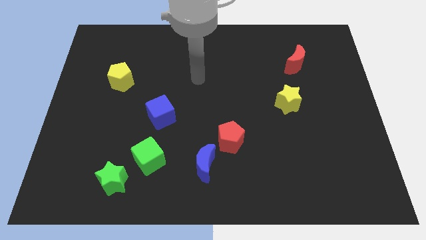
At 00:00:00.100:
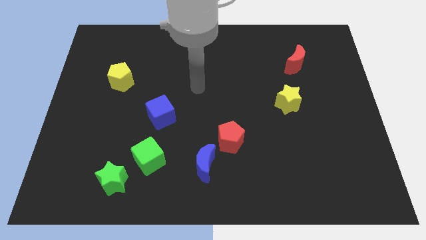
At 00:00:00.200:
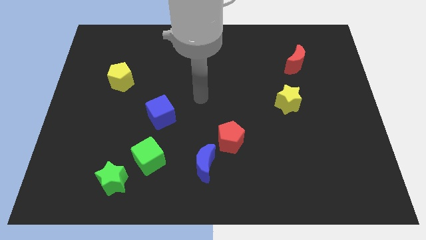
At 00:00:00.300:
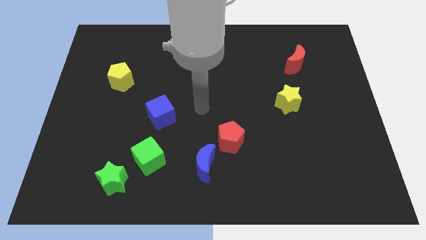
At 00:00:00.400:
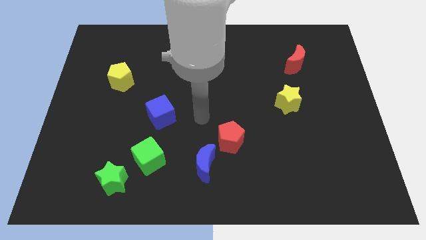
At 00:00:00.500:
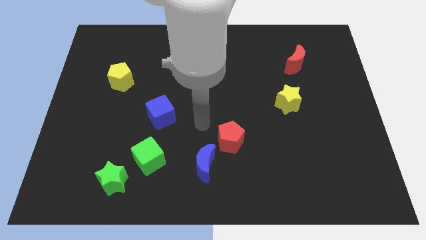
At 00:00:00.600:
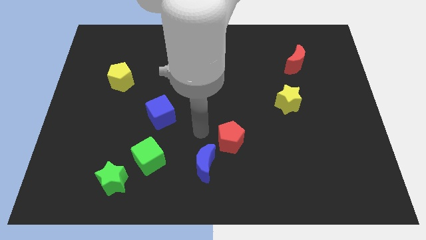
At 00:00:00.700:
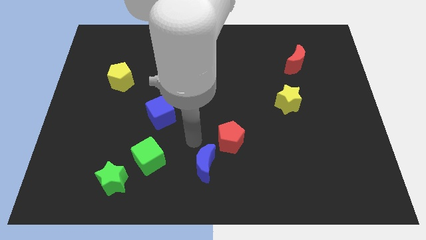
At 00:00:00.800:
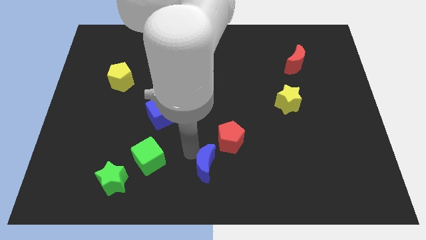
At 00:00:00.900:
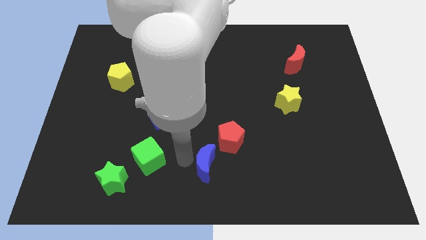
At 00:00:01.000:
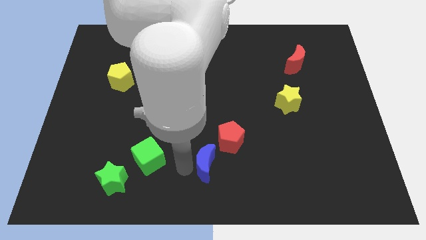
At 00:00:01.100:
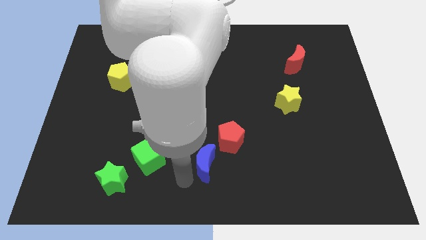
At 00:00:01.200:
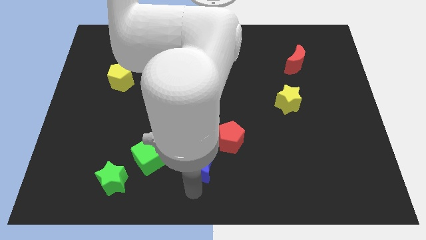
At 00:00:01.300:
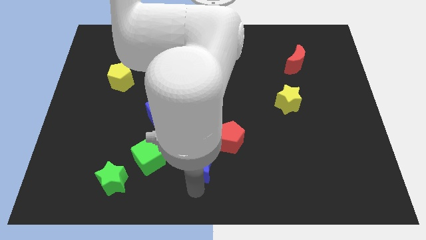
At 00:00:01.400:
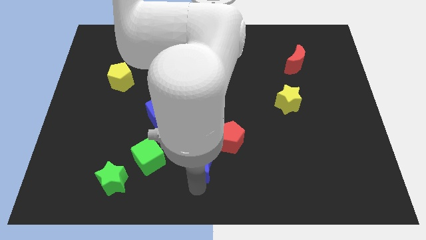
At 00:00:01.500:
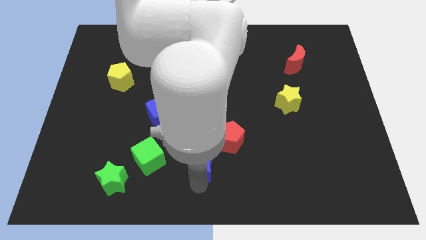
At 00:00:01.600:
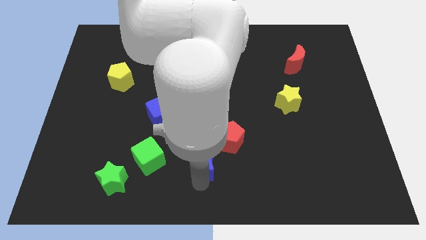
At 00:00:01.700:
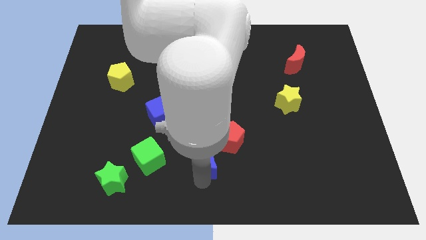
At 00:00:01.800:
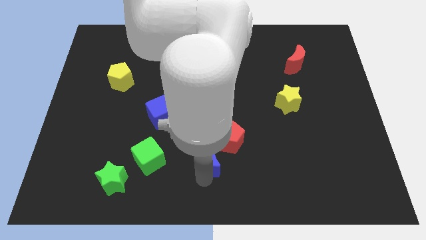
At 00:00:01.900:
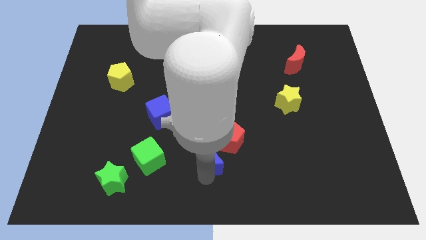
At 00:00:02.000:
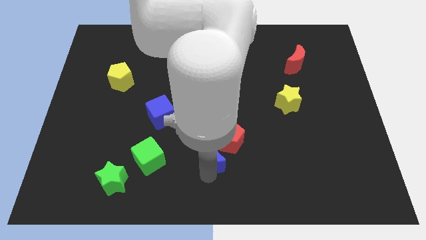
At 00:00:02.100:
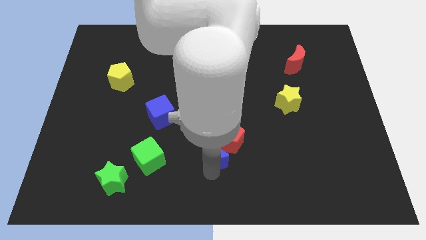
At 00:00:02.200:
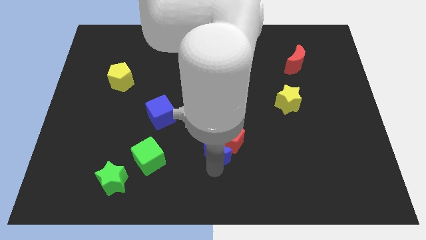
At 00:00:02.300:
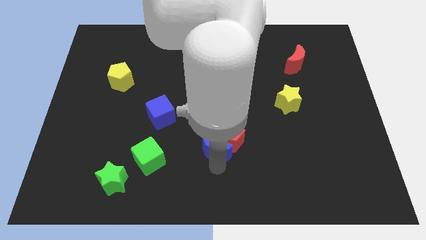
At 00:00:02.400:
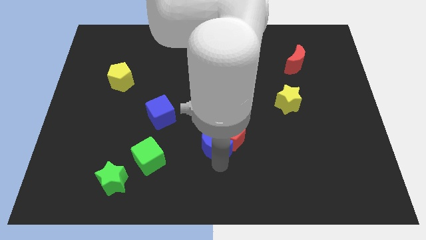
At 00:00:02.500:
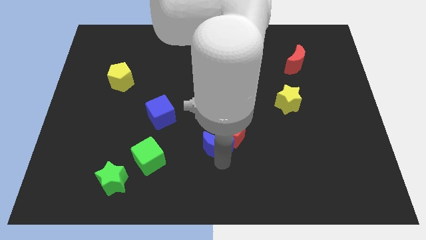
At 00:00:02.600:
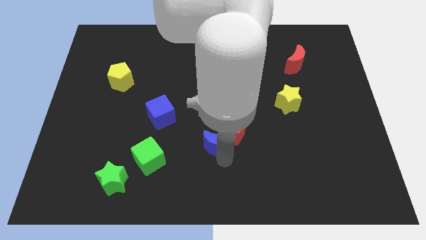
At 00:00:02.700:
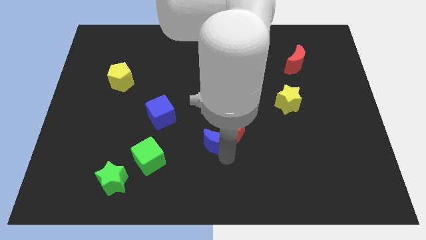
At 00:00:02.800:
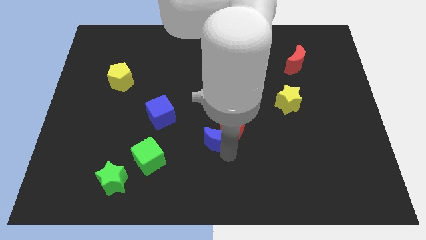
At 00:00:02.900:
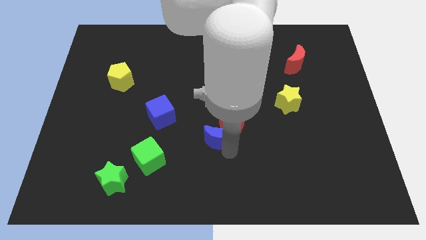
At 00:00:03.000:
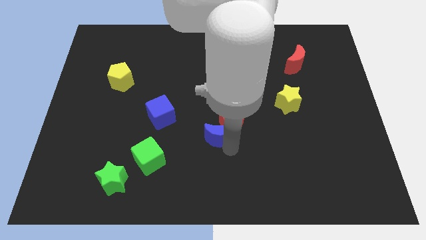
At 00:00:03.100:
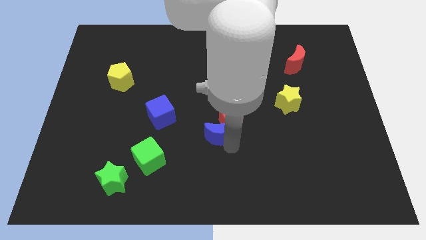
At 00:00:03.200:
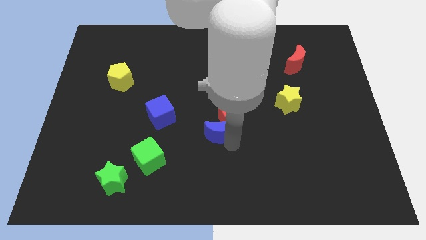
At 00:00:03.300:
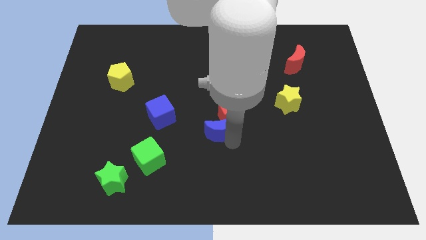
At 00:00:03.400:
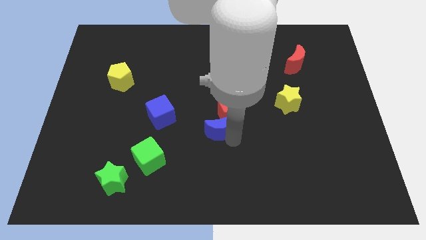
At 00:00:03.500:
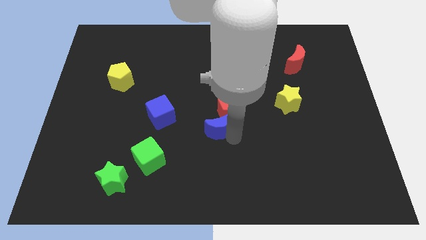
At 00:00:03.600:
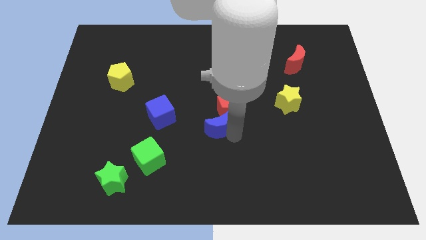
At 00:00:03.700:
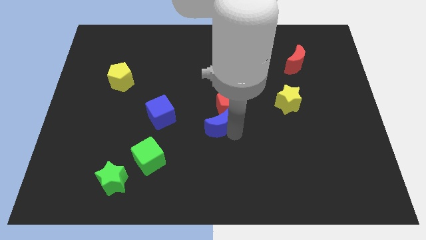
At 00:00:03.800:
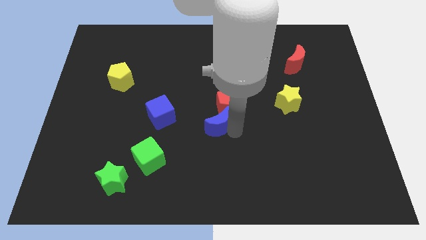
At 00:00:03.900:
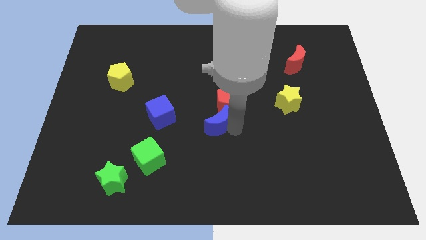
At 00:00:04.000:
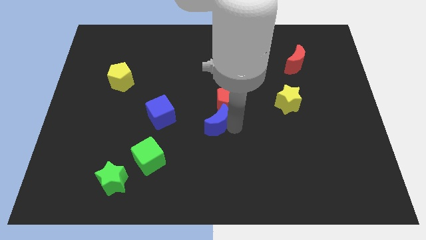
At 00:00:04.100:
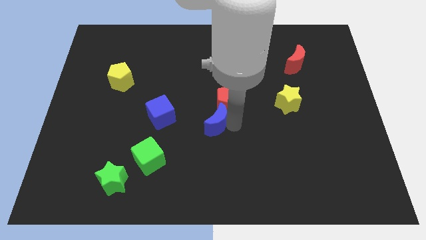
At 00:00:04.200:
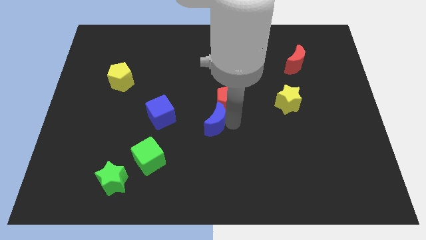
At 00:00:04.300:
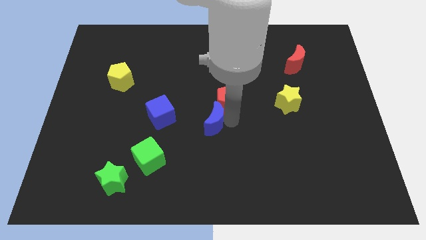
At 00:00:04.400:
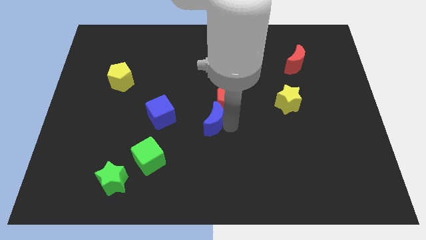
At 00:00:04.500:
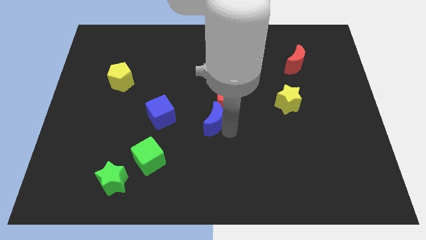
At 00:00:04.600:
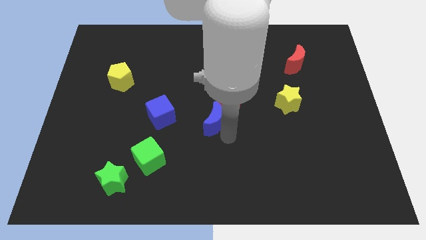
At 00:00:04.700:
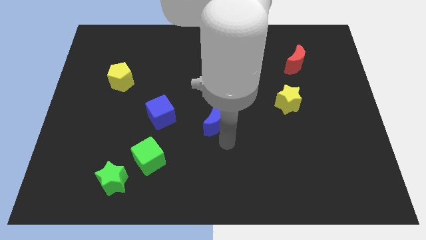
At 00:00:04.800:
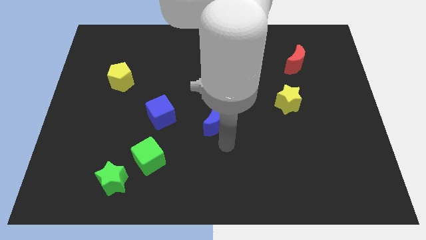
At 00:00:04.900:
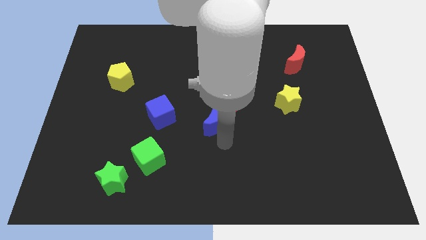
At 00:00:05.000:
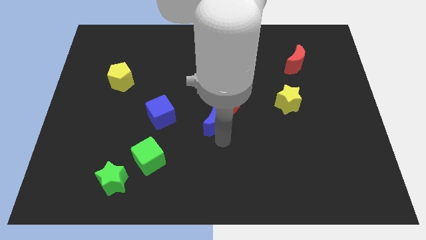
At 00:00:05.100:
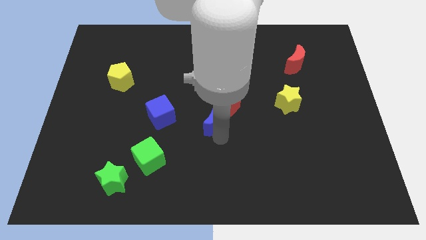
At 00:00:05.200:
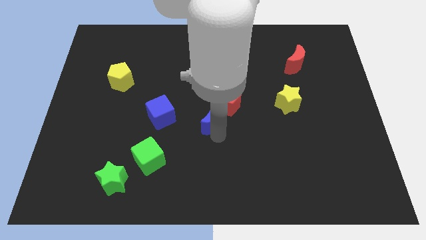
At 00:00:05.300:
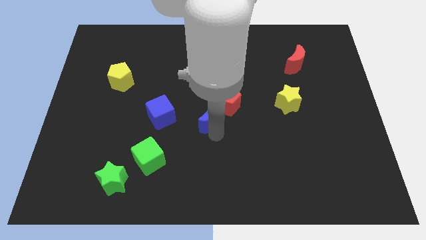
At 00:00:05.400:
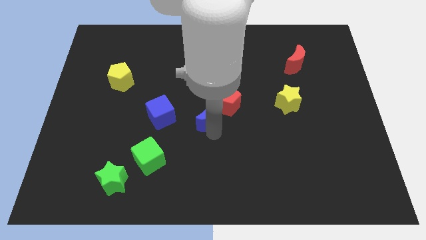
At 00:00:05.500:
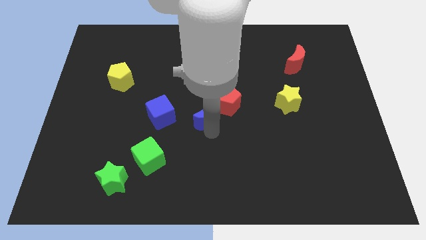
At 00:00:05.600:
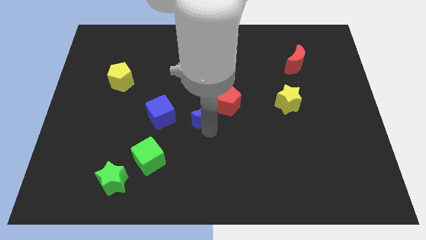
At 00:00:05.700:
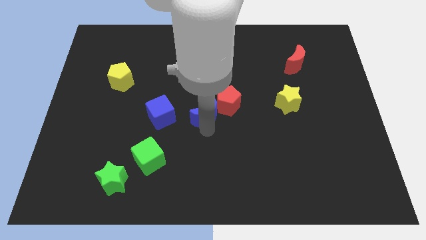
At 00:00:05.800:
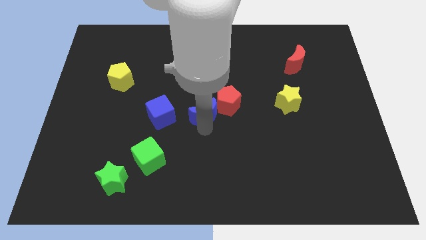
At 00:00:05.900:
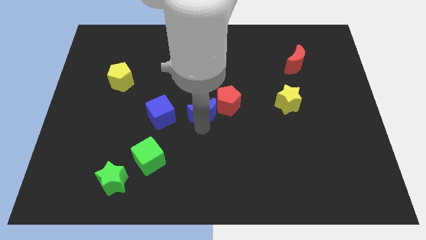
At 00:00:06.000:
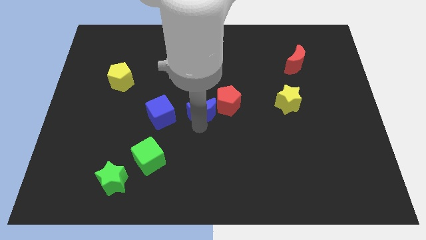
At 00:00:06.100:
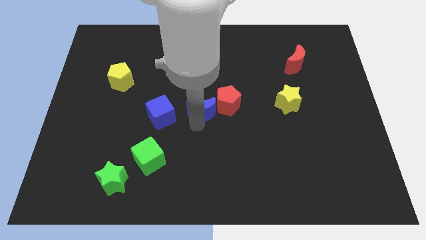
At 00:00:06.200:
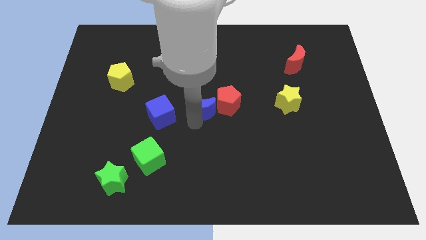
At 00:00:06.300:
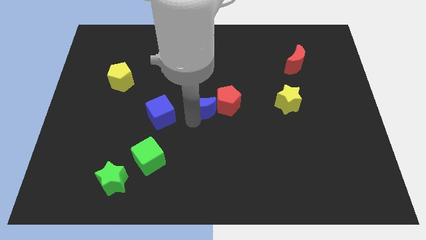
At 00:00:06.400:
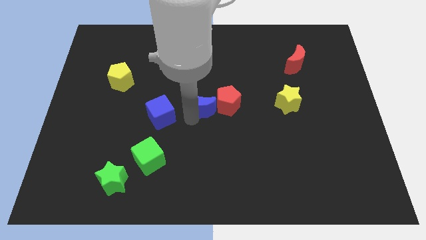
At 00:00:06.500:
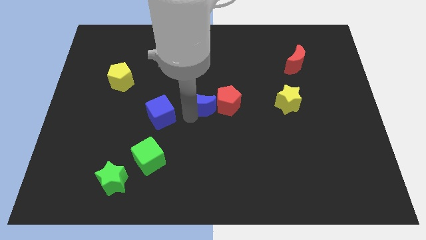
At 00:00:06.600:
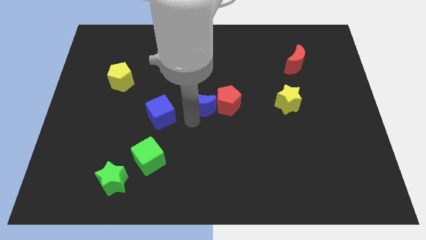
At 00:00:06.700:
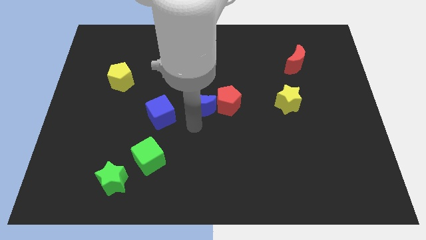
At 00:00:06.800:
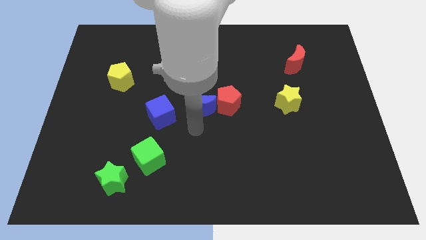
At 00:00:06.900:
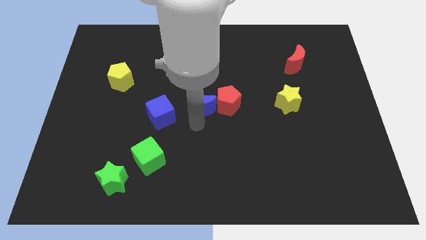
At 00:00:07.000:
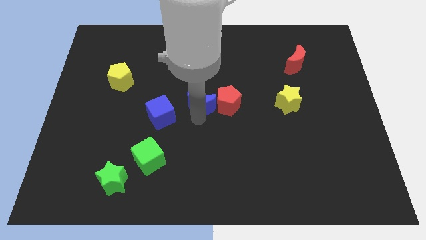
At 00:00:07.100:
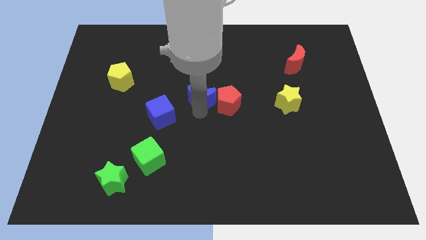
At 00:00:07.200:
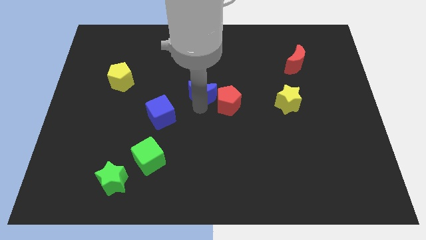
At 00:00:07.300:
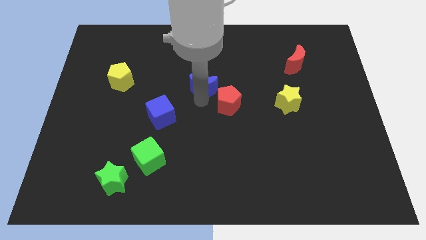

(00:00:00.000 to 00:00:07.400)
move the blue moon upwards

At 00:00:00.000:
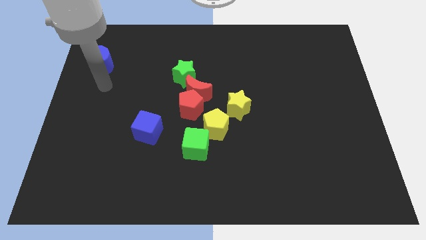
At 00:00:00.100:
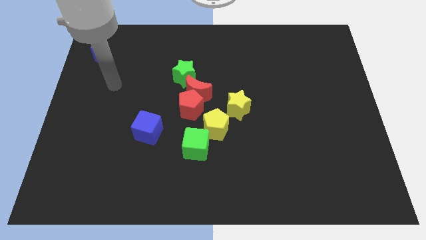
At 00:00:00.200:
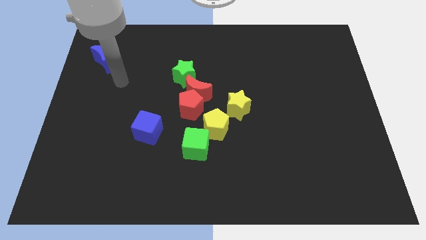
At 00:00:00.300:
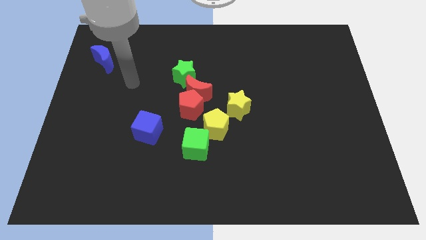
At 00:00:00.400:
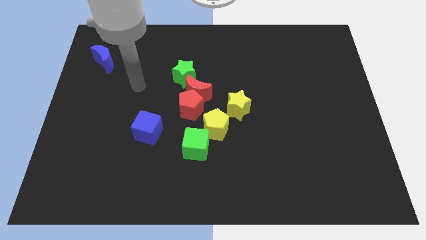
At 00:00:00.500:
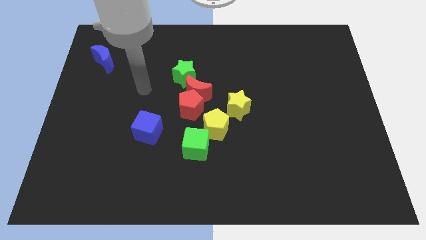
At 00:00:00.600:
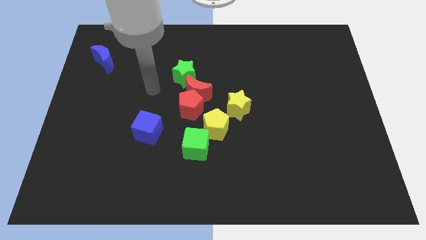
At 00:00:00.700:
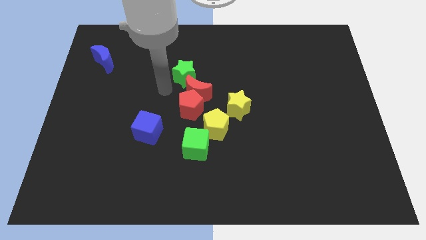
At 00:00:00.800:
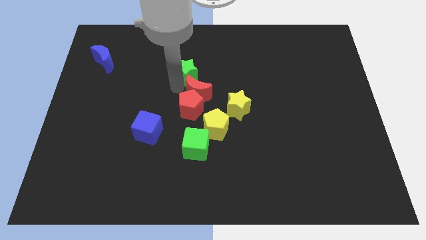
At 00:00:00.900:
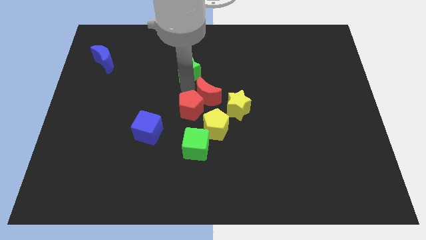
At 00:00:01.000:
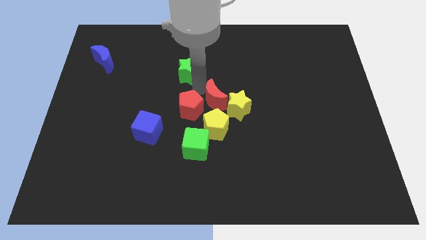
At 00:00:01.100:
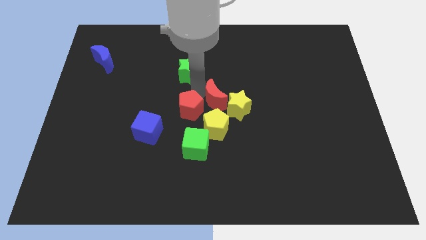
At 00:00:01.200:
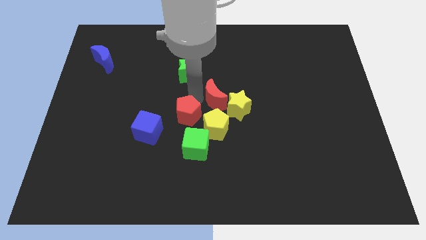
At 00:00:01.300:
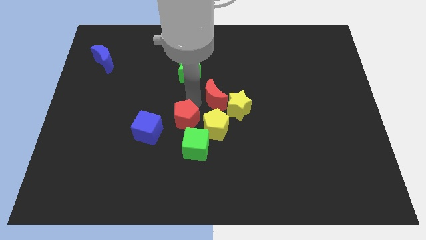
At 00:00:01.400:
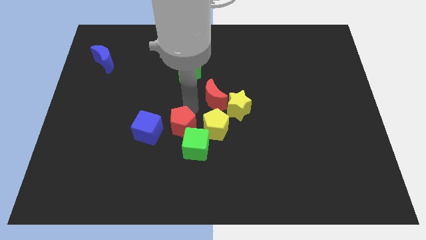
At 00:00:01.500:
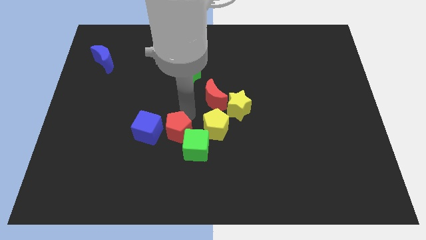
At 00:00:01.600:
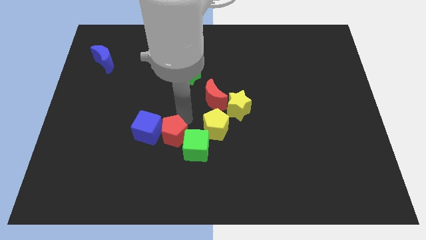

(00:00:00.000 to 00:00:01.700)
slightly move the red pentagon downwards
